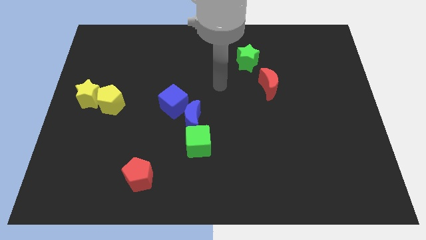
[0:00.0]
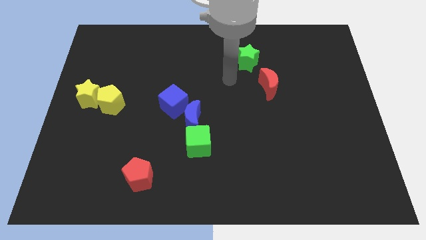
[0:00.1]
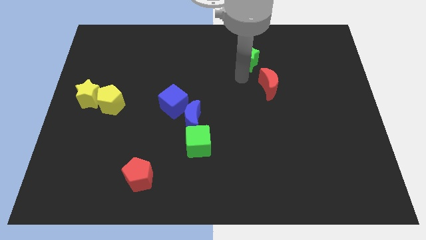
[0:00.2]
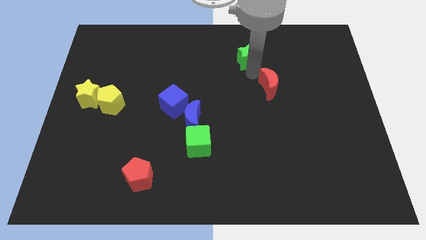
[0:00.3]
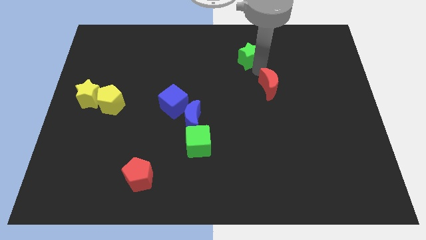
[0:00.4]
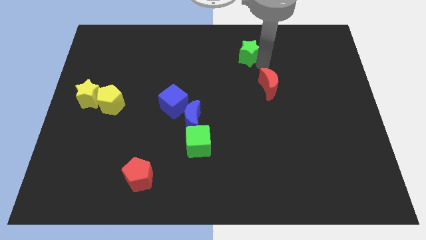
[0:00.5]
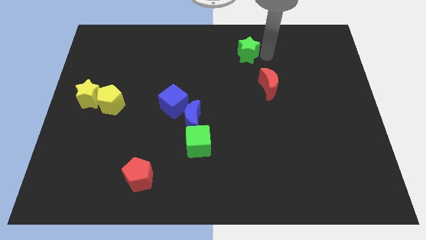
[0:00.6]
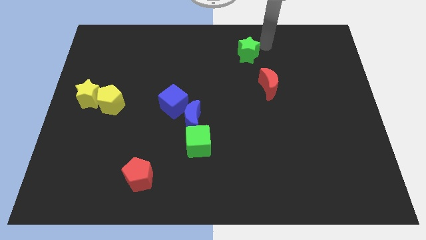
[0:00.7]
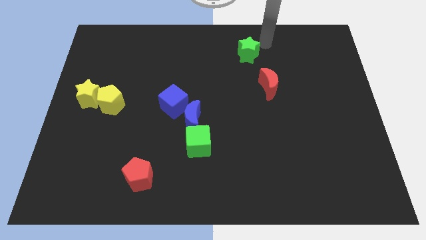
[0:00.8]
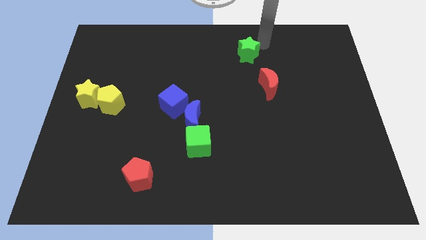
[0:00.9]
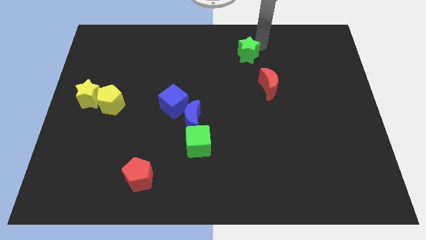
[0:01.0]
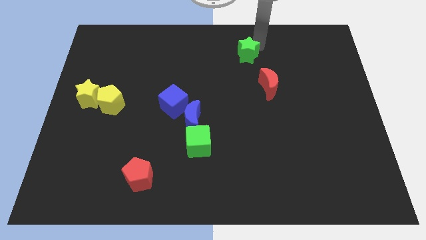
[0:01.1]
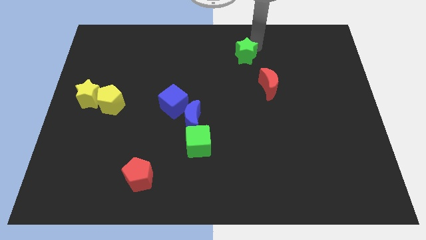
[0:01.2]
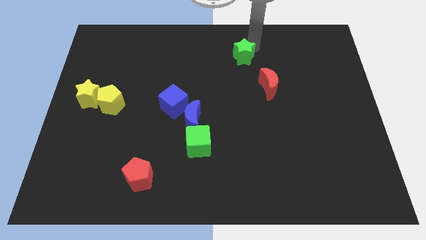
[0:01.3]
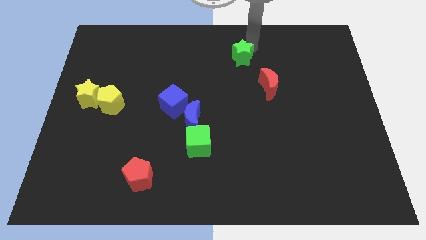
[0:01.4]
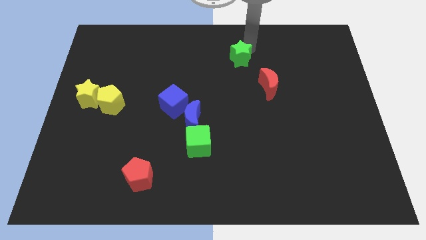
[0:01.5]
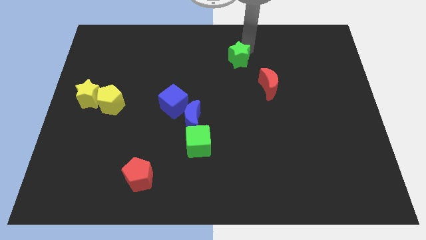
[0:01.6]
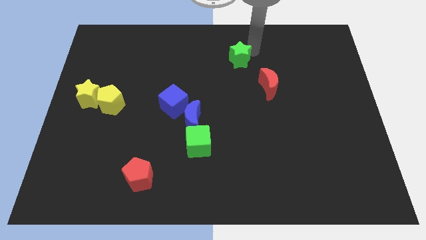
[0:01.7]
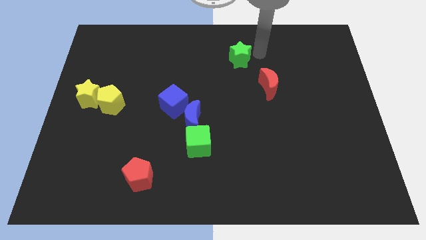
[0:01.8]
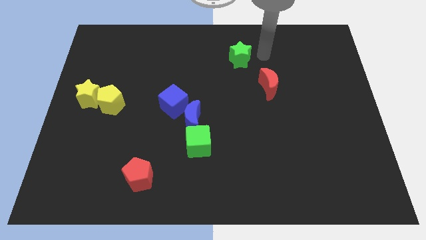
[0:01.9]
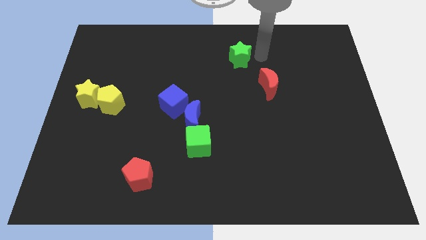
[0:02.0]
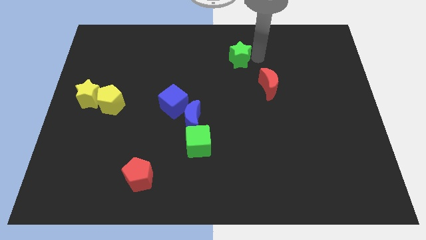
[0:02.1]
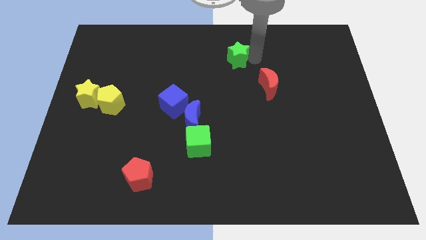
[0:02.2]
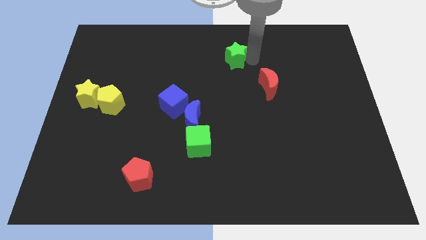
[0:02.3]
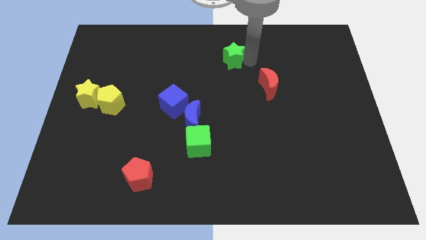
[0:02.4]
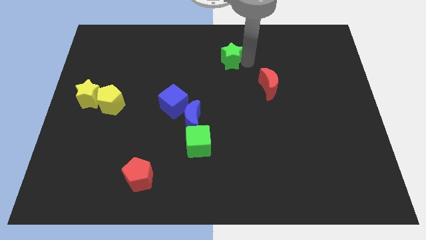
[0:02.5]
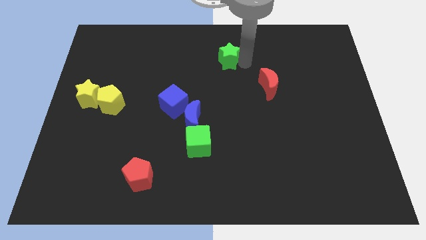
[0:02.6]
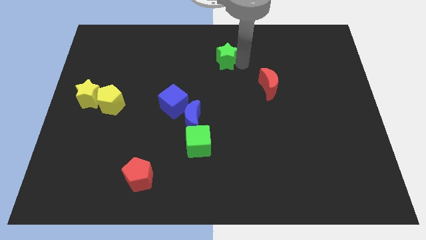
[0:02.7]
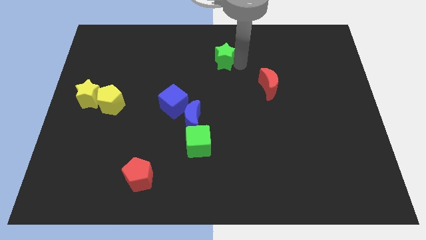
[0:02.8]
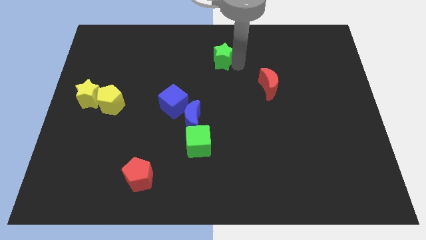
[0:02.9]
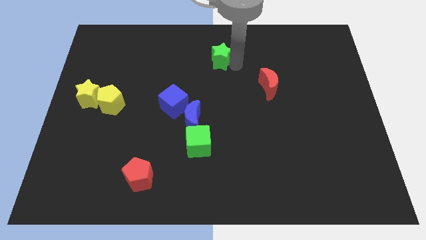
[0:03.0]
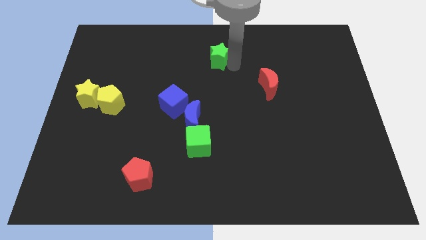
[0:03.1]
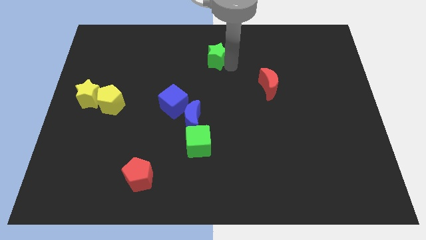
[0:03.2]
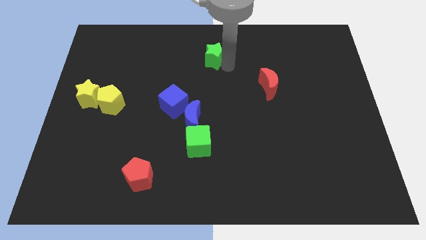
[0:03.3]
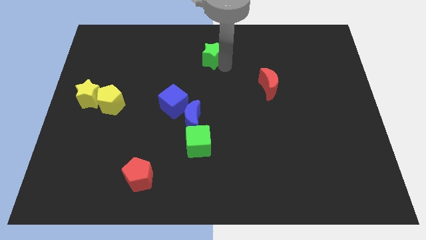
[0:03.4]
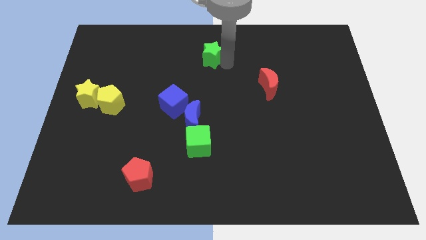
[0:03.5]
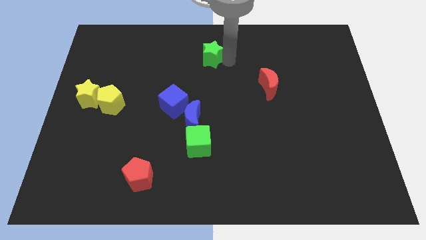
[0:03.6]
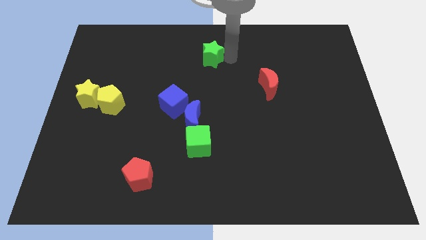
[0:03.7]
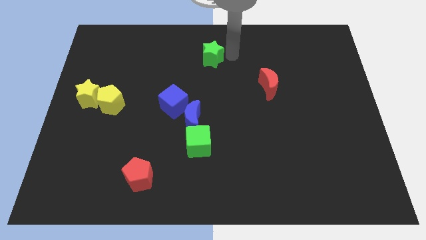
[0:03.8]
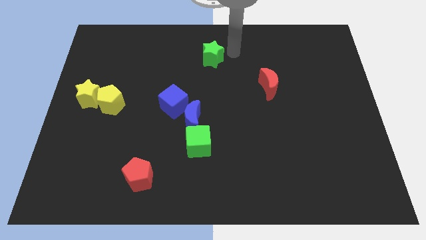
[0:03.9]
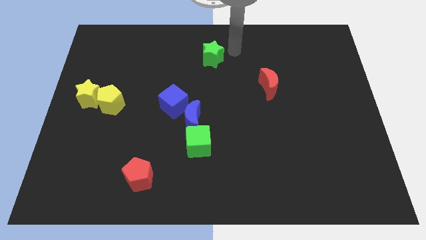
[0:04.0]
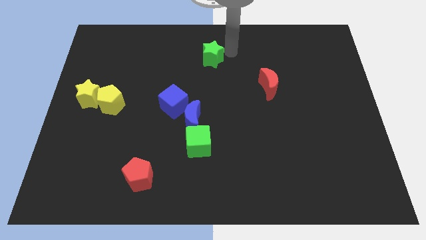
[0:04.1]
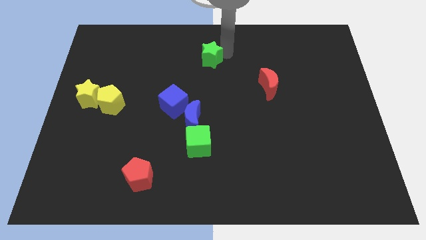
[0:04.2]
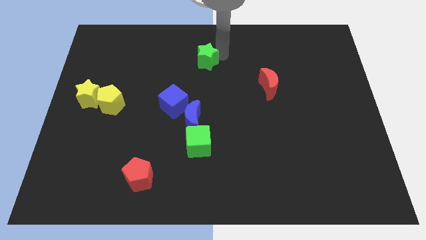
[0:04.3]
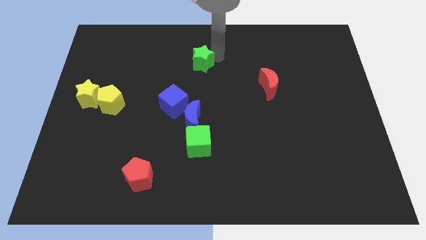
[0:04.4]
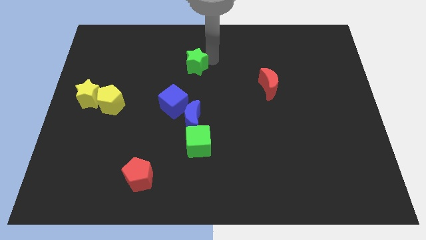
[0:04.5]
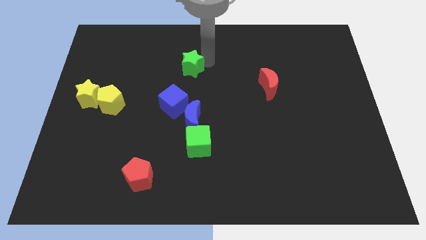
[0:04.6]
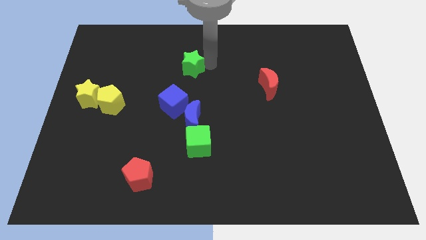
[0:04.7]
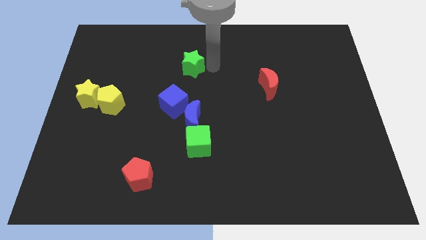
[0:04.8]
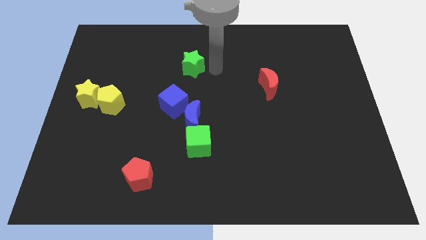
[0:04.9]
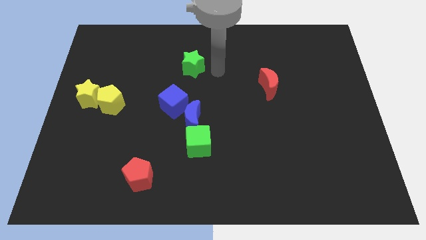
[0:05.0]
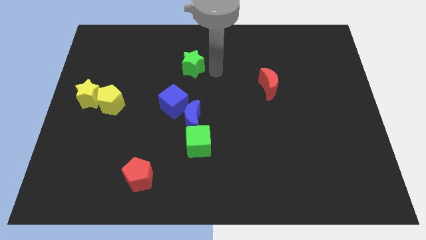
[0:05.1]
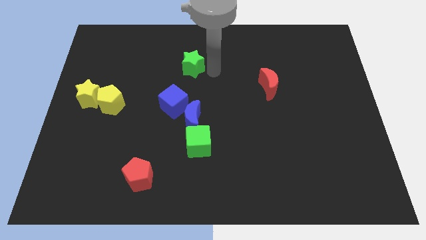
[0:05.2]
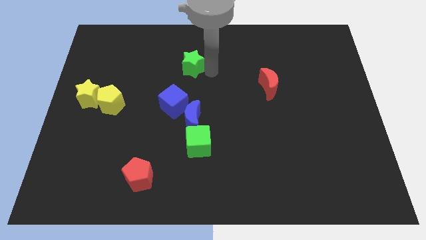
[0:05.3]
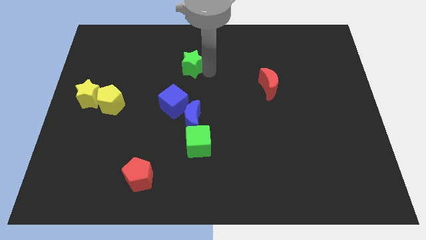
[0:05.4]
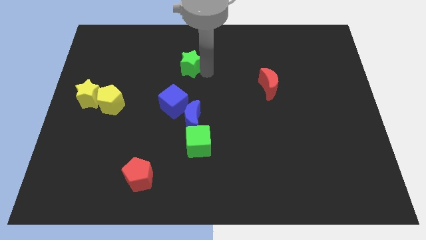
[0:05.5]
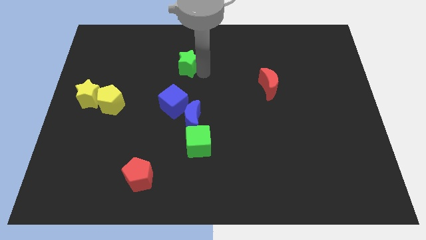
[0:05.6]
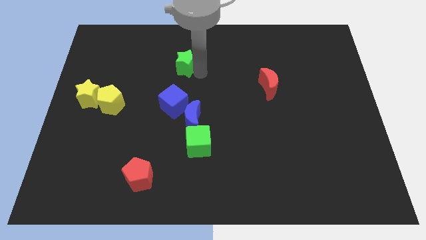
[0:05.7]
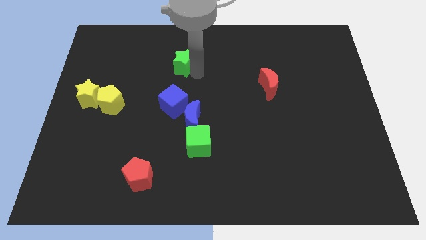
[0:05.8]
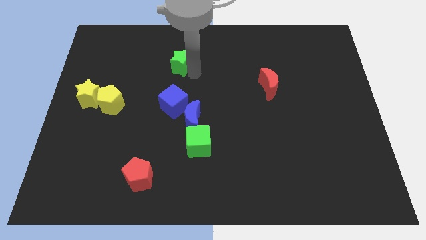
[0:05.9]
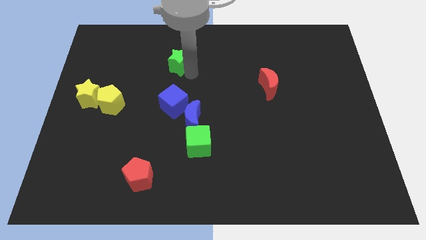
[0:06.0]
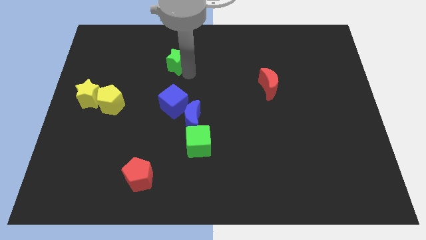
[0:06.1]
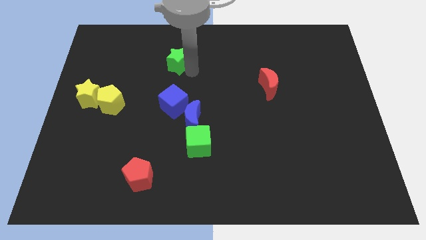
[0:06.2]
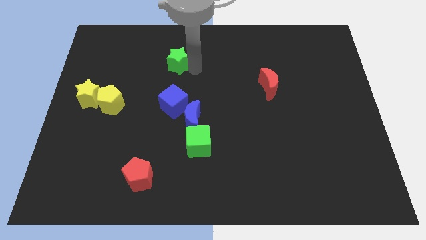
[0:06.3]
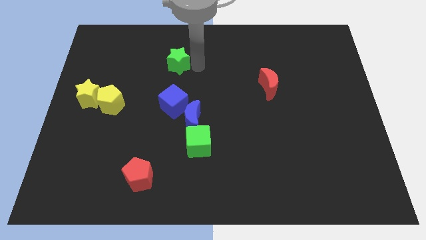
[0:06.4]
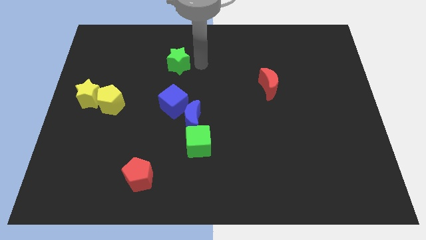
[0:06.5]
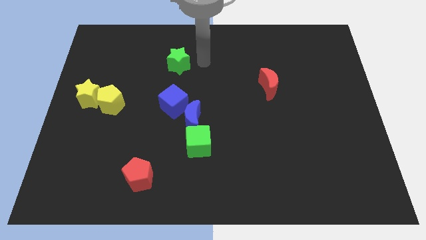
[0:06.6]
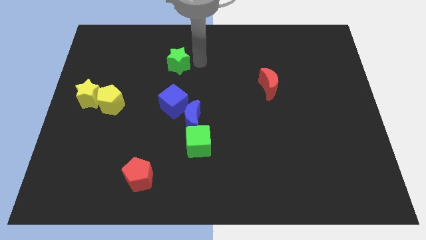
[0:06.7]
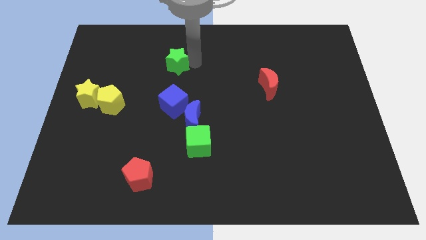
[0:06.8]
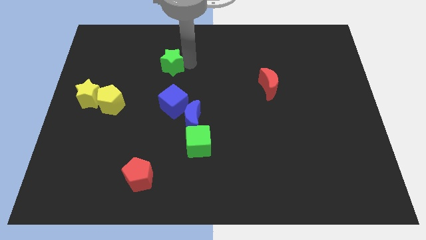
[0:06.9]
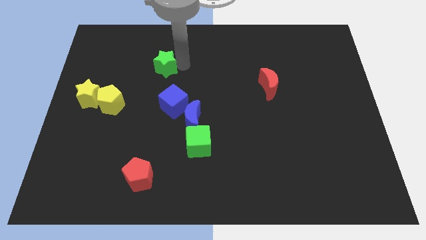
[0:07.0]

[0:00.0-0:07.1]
move the green star to the left

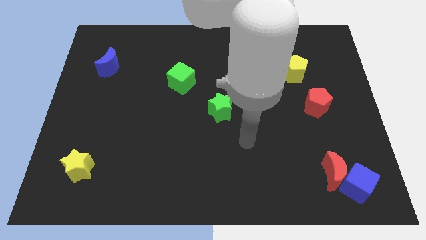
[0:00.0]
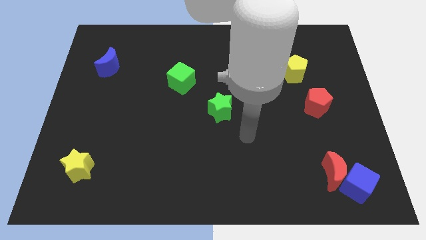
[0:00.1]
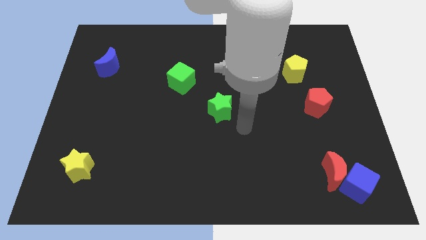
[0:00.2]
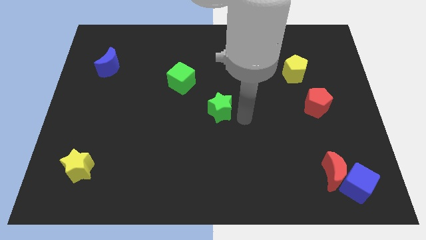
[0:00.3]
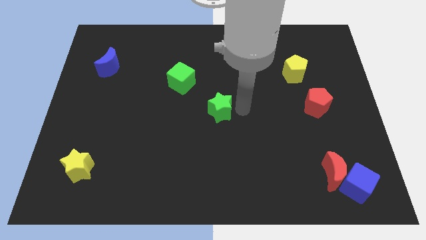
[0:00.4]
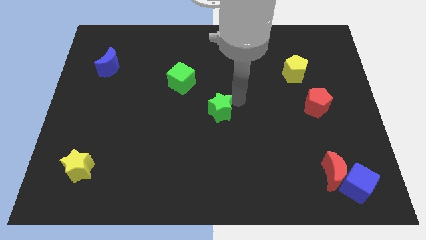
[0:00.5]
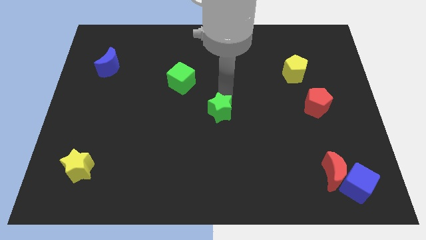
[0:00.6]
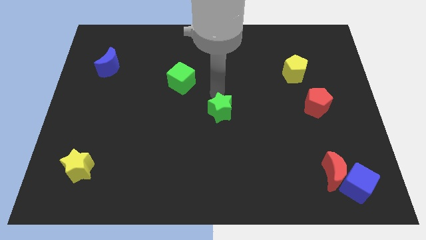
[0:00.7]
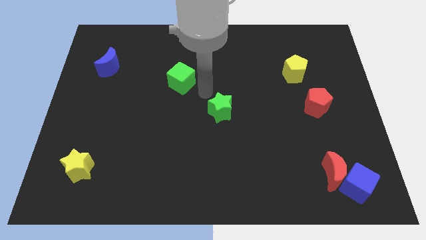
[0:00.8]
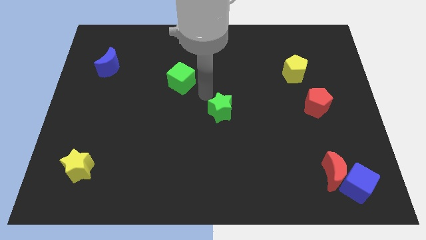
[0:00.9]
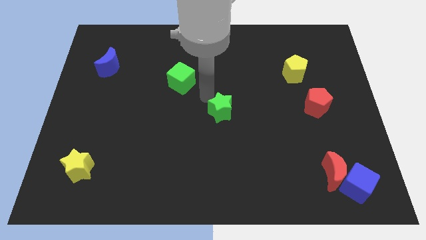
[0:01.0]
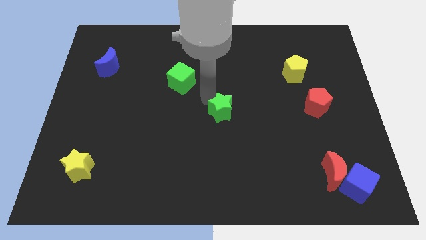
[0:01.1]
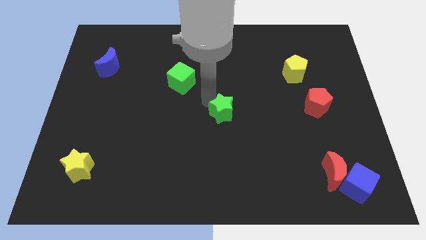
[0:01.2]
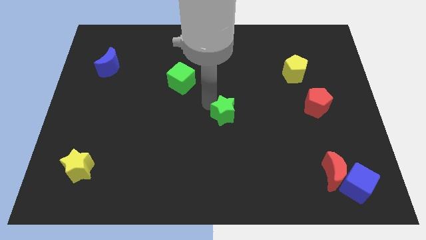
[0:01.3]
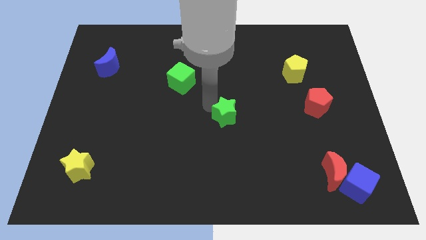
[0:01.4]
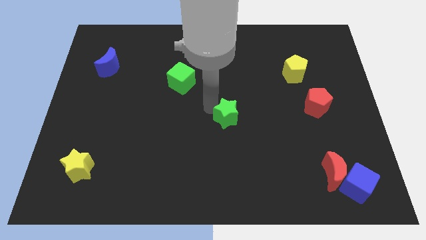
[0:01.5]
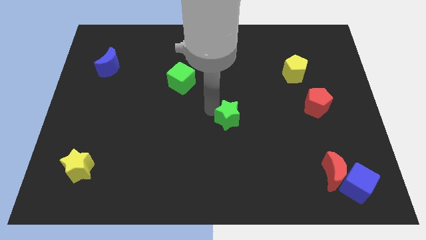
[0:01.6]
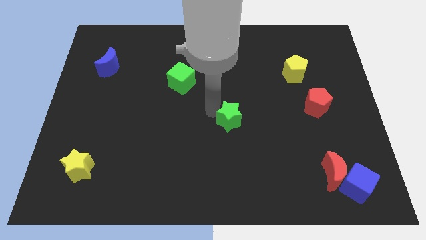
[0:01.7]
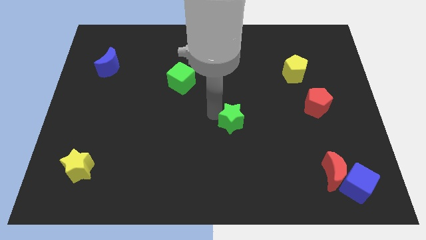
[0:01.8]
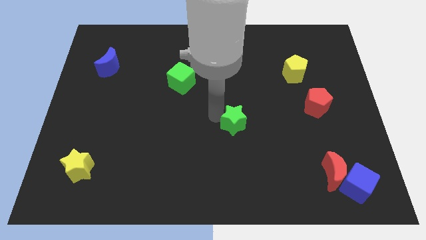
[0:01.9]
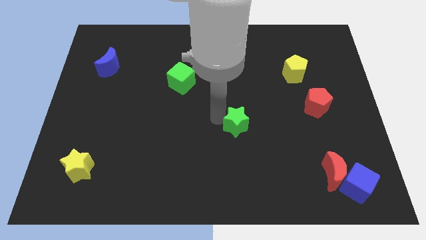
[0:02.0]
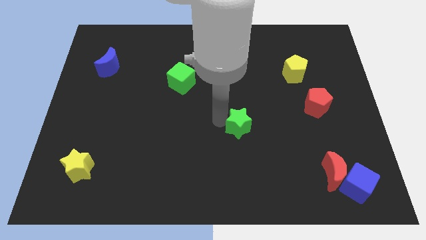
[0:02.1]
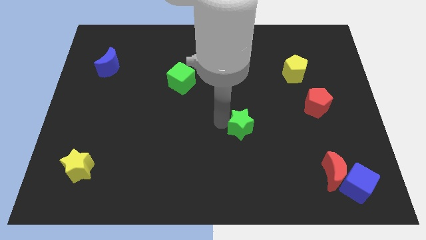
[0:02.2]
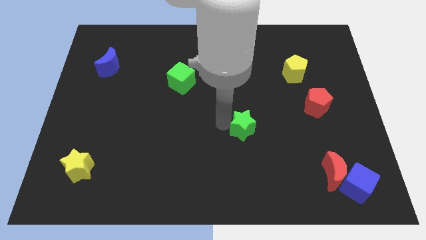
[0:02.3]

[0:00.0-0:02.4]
push the green star down and right a little
